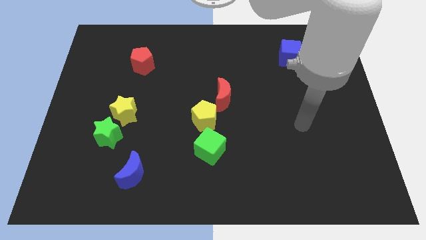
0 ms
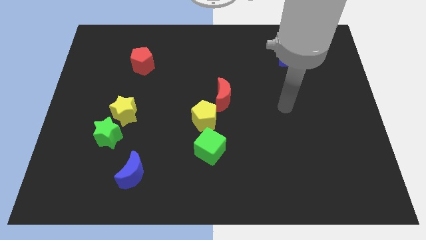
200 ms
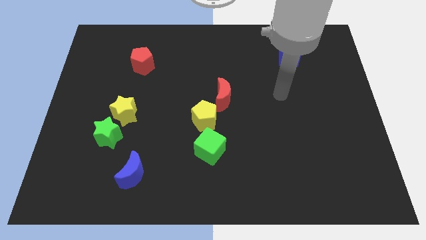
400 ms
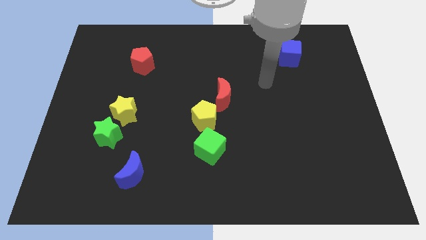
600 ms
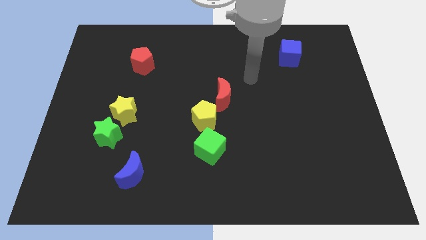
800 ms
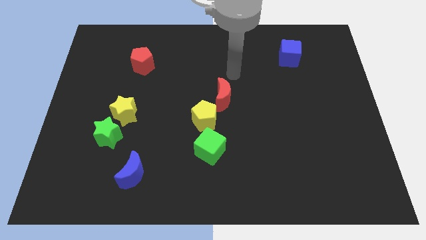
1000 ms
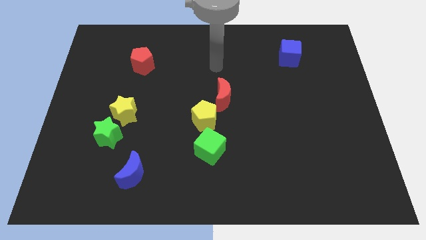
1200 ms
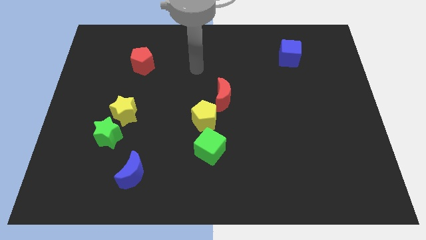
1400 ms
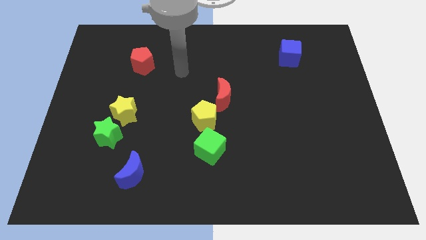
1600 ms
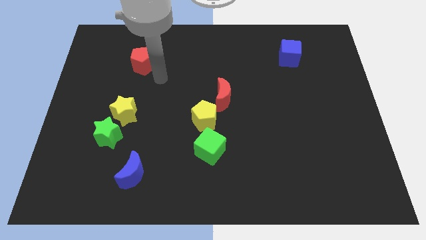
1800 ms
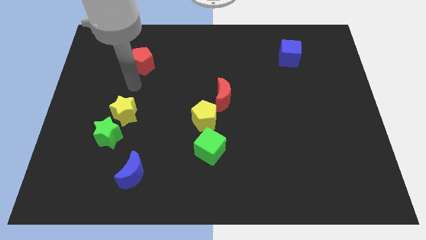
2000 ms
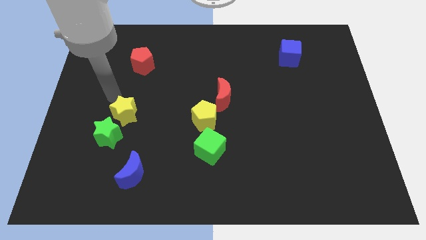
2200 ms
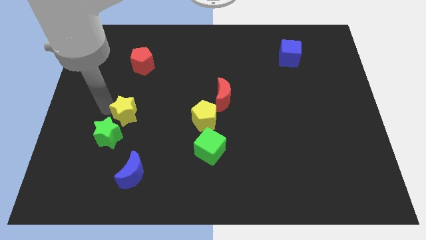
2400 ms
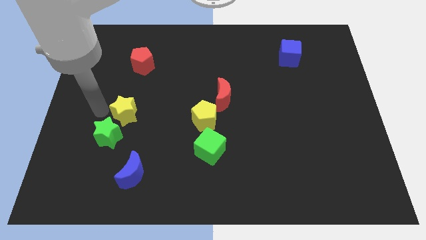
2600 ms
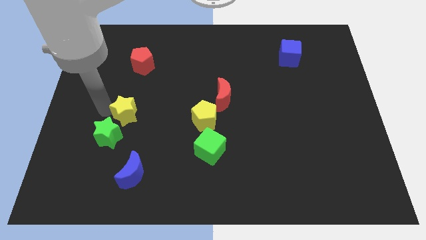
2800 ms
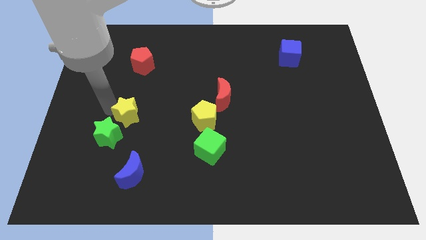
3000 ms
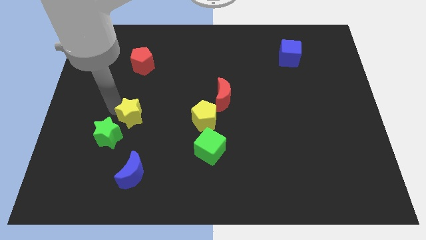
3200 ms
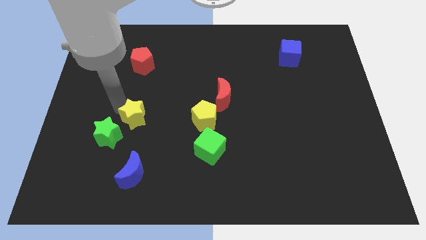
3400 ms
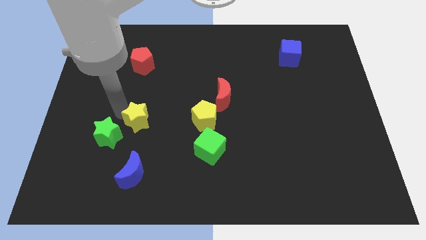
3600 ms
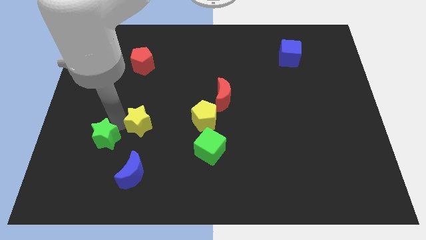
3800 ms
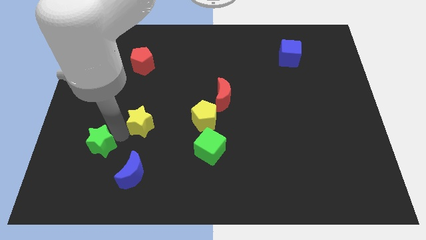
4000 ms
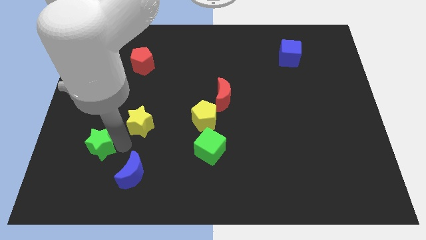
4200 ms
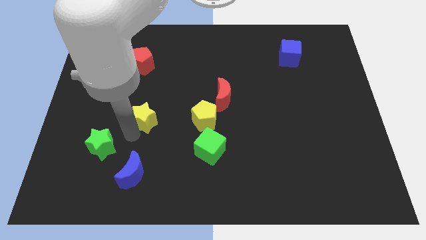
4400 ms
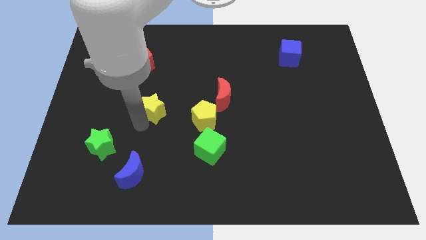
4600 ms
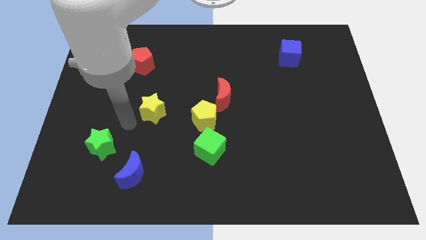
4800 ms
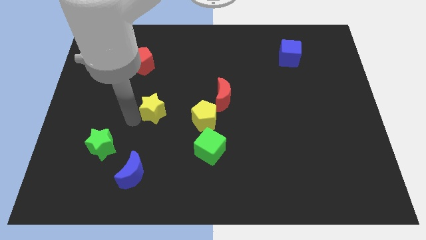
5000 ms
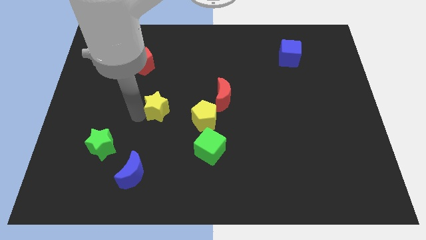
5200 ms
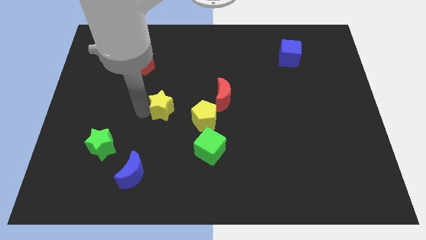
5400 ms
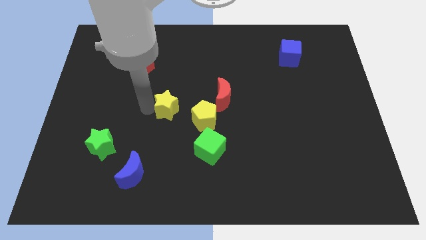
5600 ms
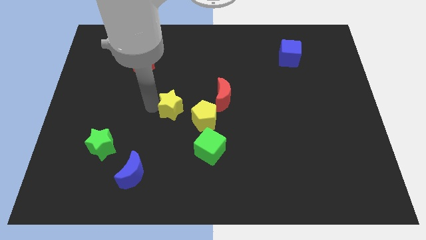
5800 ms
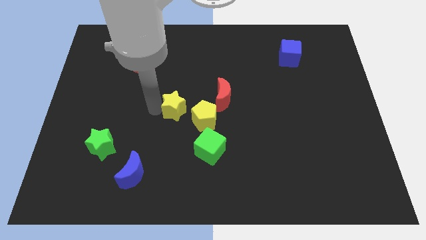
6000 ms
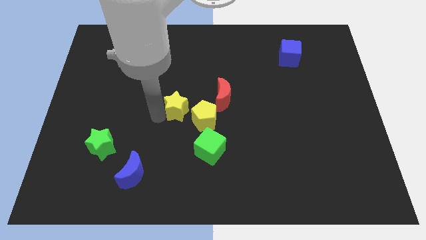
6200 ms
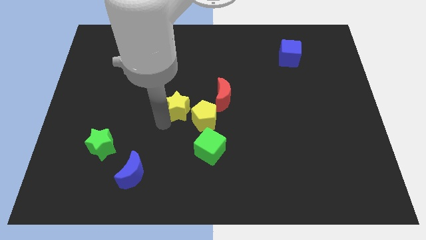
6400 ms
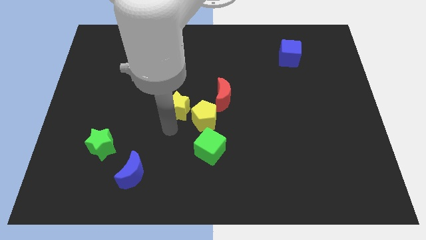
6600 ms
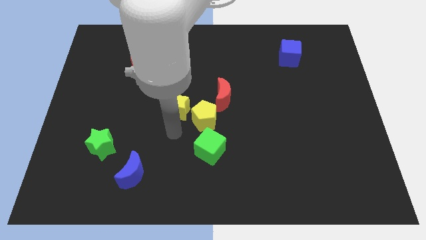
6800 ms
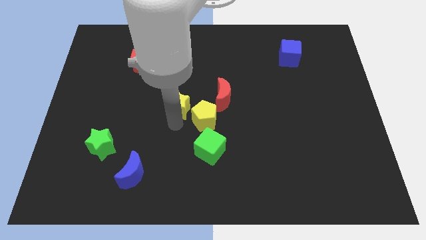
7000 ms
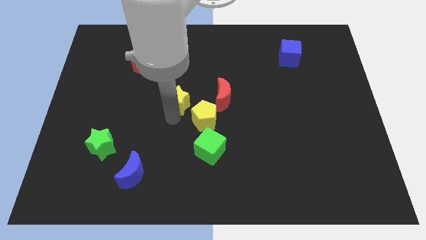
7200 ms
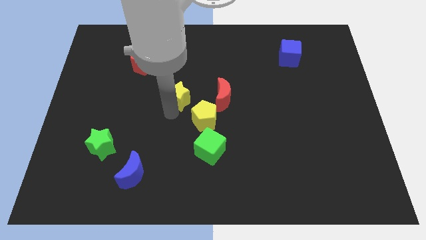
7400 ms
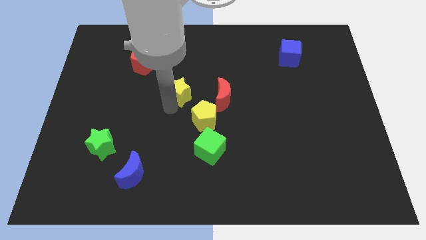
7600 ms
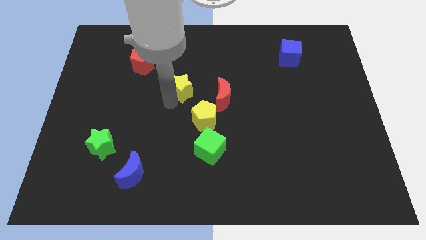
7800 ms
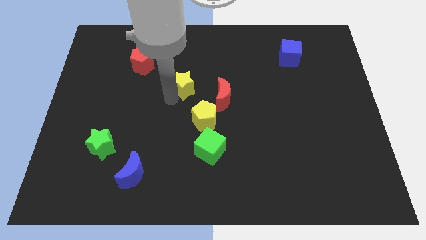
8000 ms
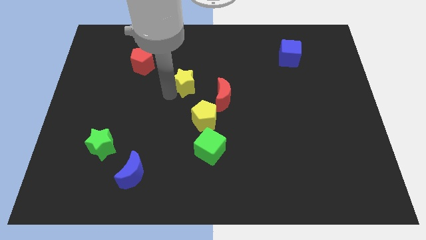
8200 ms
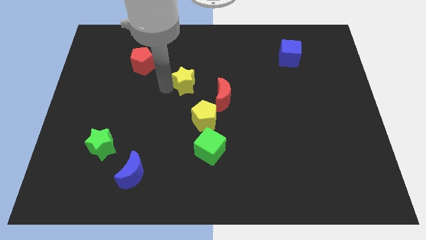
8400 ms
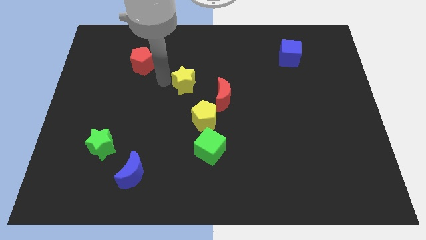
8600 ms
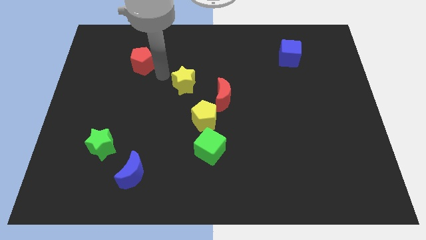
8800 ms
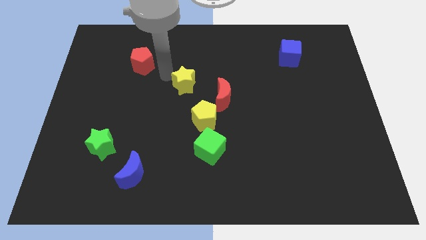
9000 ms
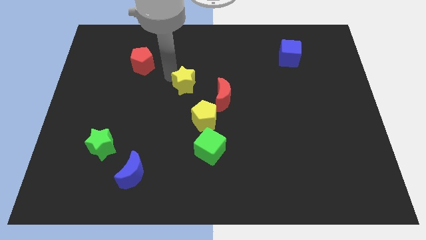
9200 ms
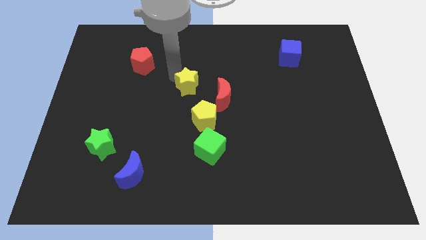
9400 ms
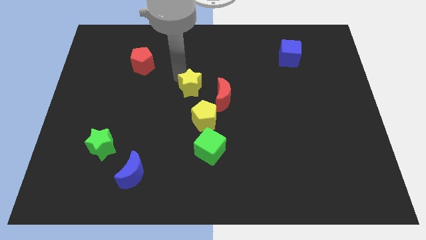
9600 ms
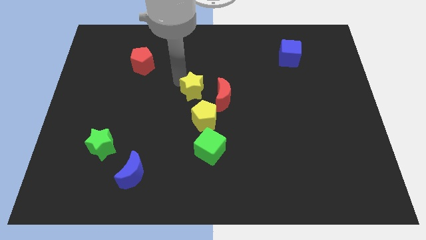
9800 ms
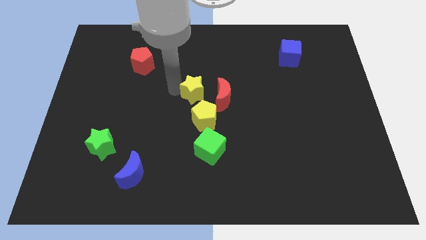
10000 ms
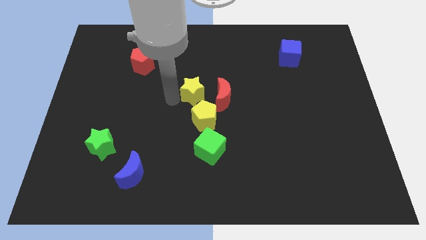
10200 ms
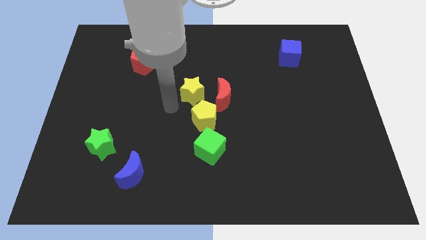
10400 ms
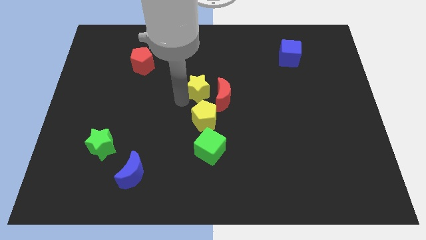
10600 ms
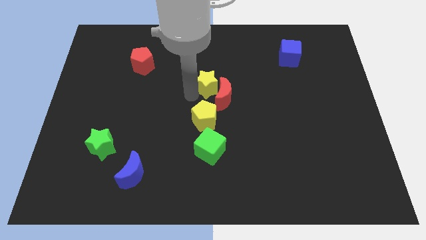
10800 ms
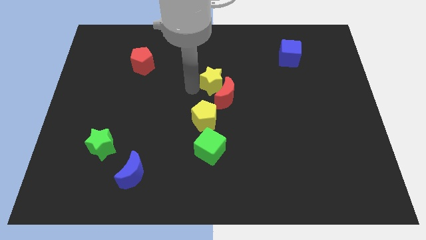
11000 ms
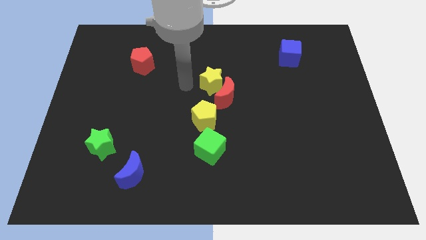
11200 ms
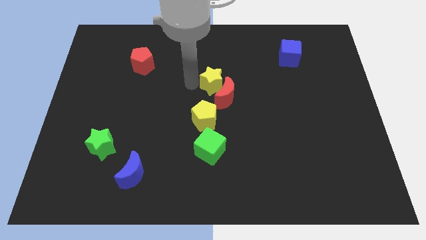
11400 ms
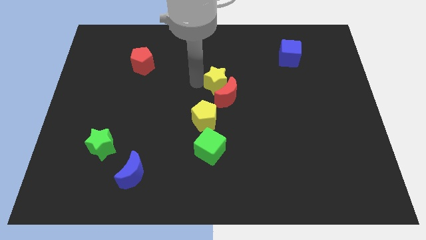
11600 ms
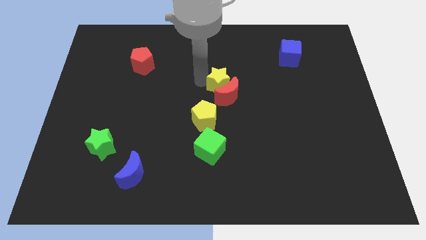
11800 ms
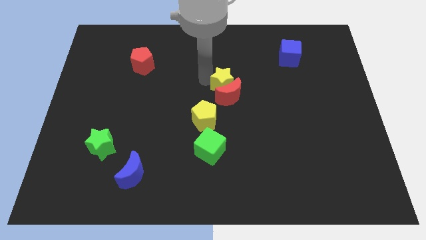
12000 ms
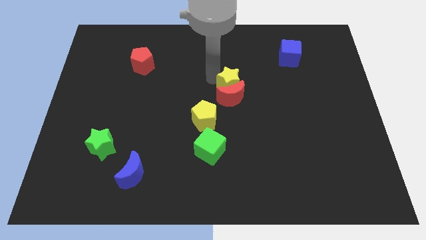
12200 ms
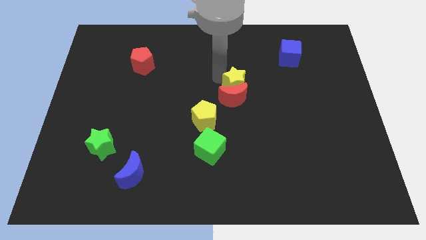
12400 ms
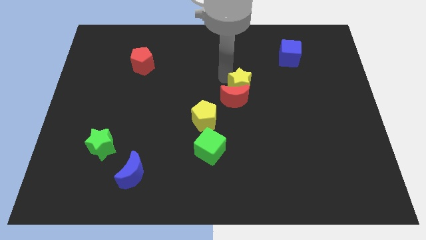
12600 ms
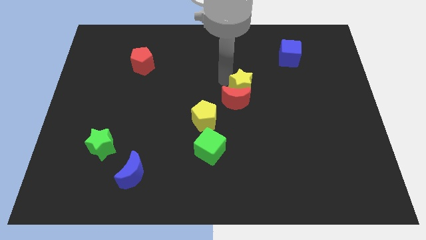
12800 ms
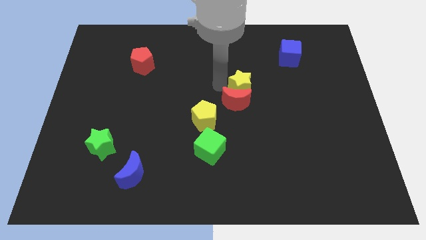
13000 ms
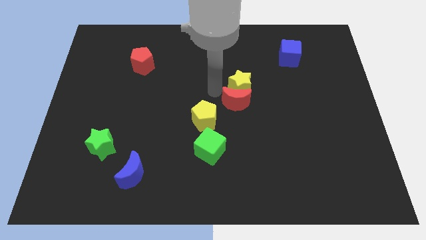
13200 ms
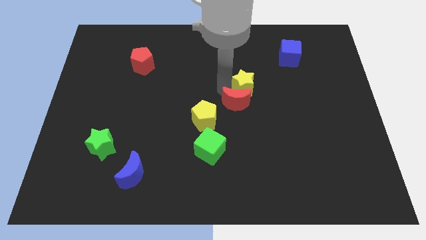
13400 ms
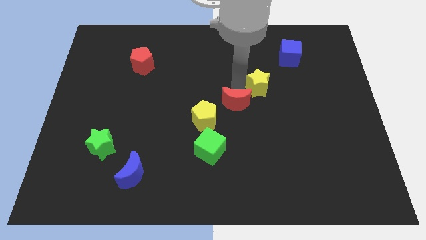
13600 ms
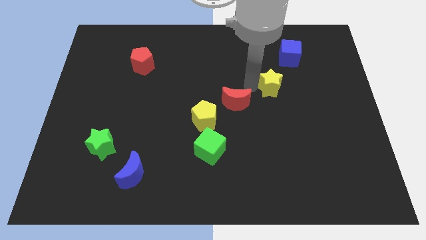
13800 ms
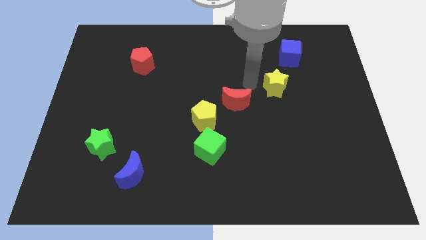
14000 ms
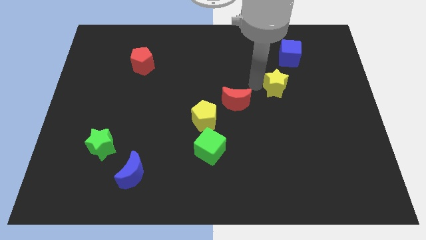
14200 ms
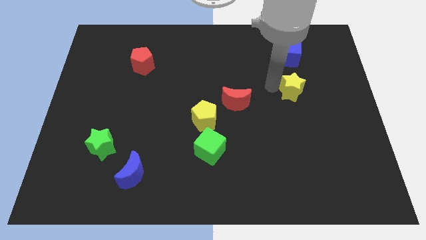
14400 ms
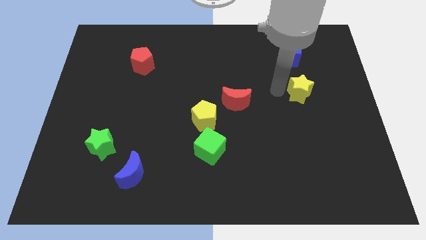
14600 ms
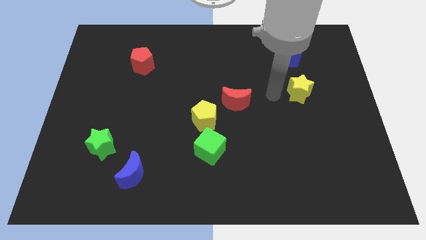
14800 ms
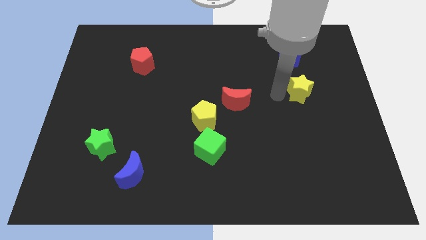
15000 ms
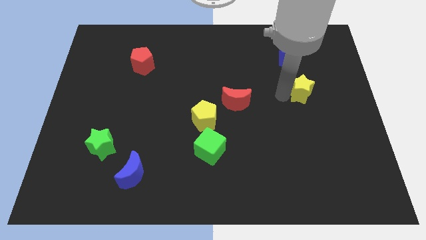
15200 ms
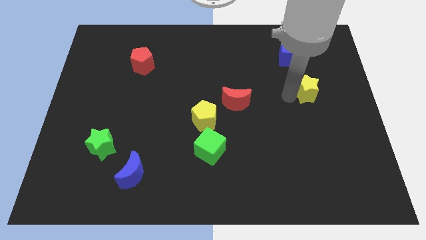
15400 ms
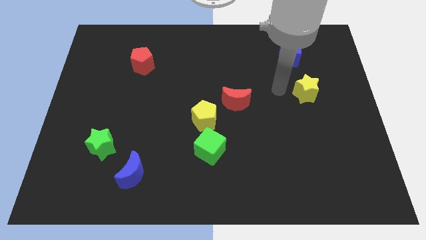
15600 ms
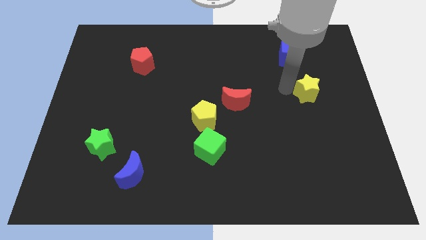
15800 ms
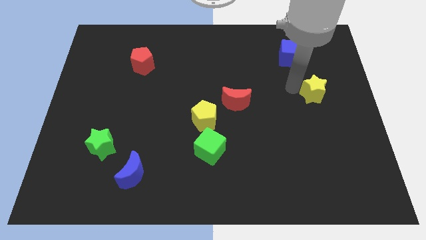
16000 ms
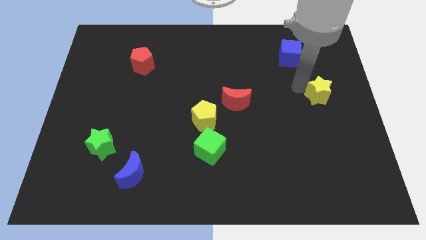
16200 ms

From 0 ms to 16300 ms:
slide the yellow star to the center right
